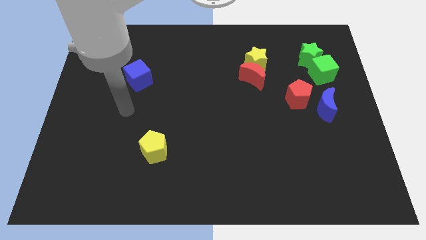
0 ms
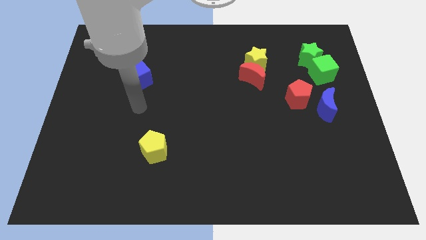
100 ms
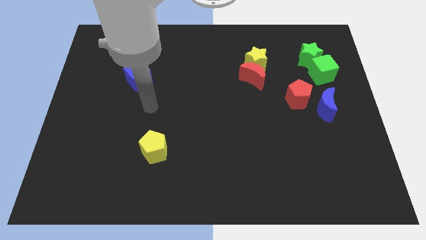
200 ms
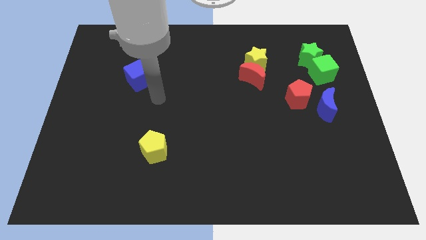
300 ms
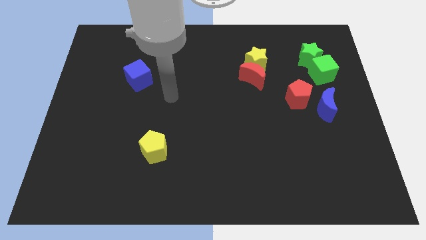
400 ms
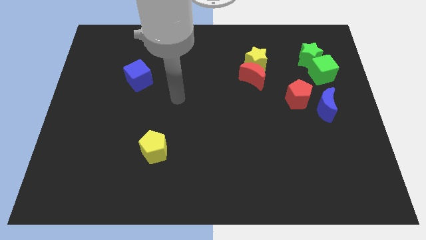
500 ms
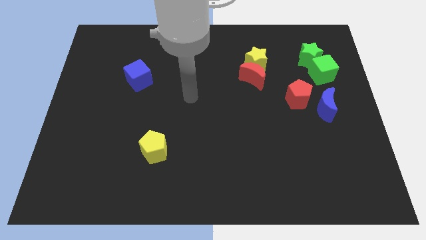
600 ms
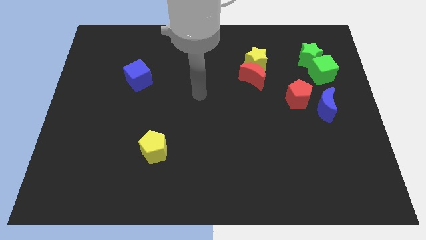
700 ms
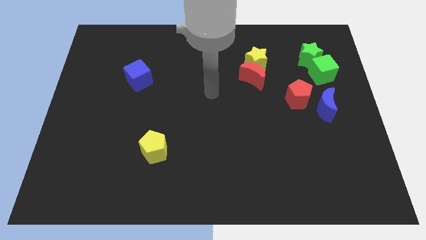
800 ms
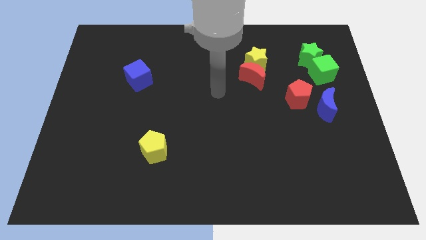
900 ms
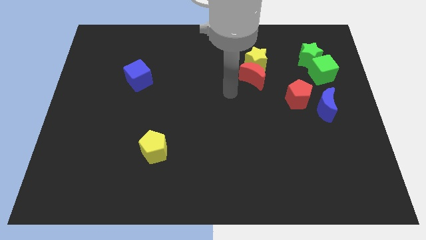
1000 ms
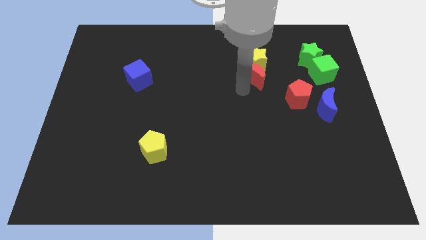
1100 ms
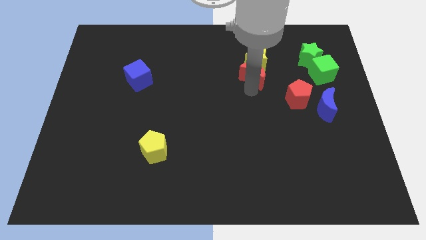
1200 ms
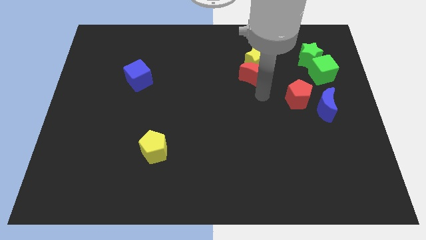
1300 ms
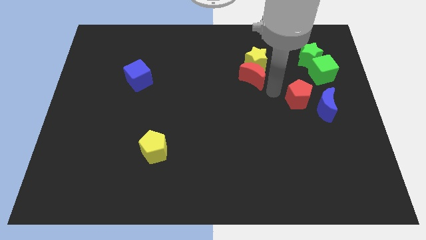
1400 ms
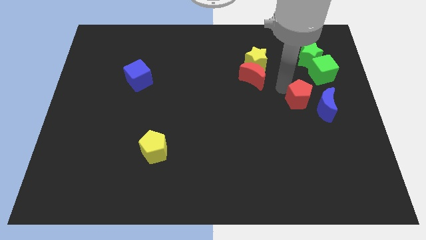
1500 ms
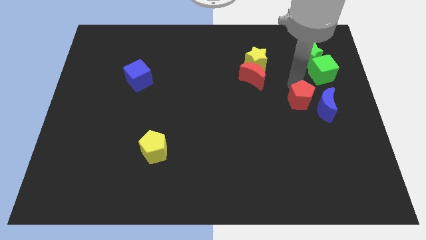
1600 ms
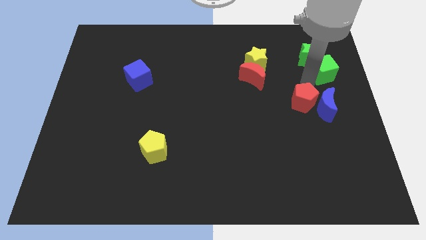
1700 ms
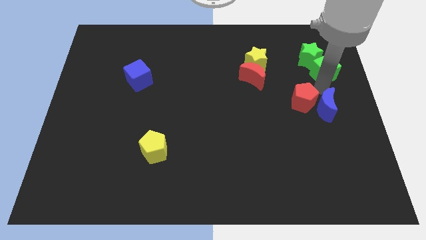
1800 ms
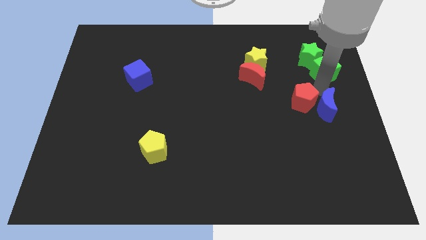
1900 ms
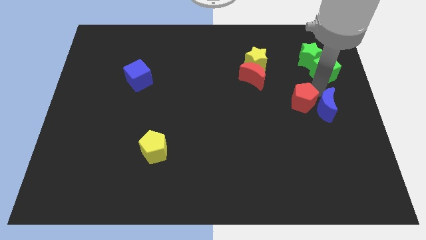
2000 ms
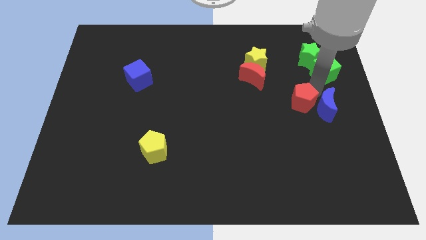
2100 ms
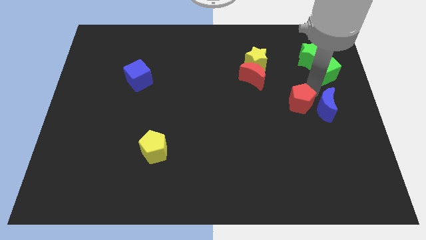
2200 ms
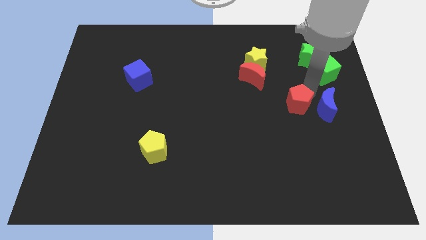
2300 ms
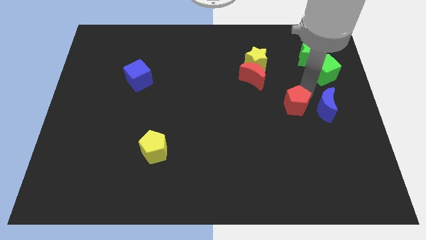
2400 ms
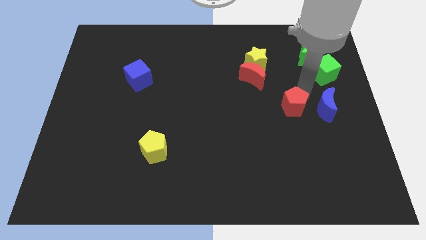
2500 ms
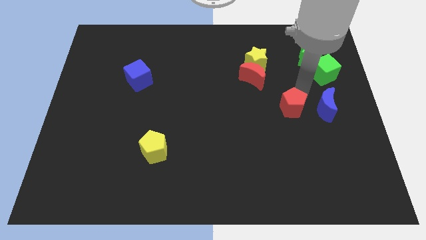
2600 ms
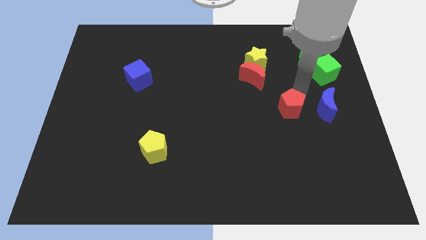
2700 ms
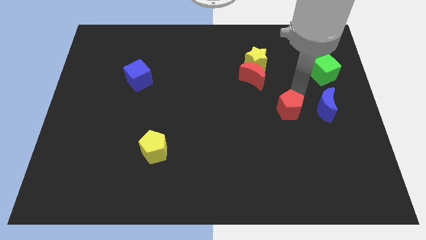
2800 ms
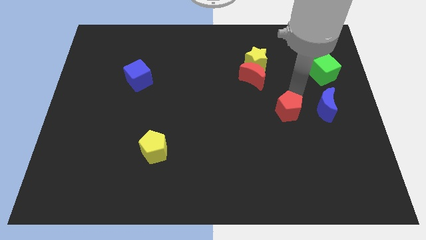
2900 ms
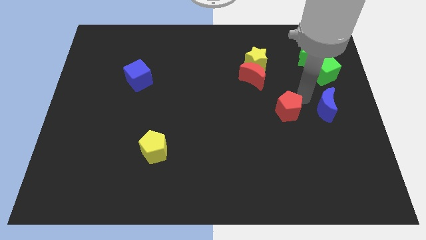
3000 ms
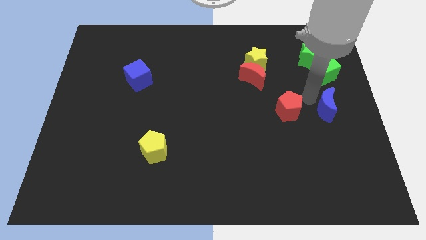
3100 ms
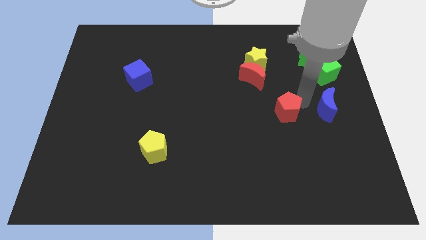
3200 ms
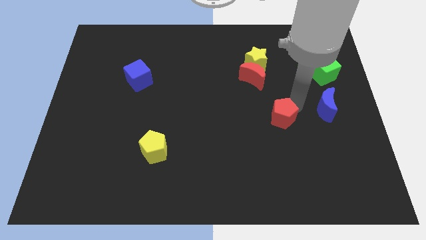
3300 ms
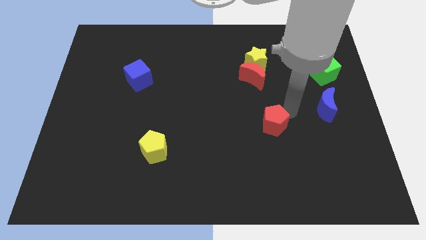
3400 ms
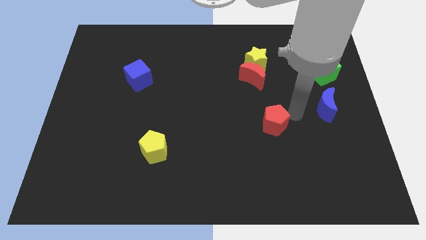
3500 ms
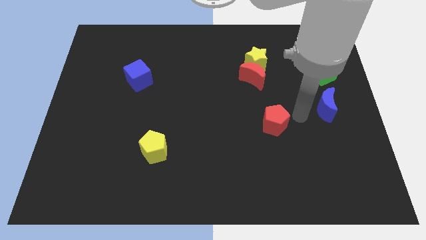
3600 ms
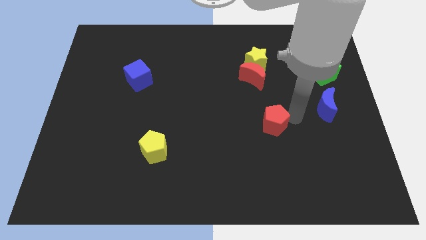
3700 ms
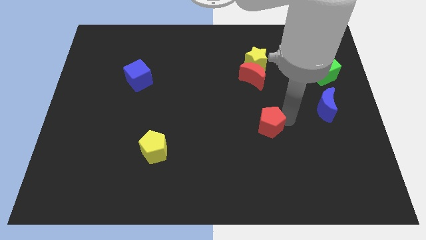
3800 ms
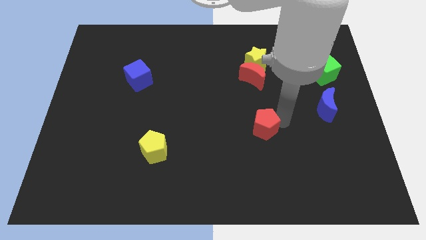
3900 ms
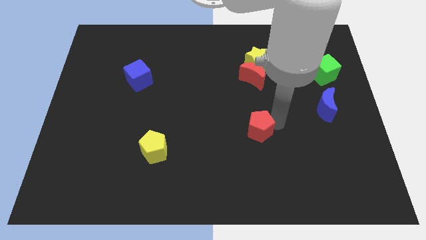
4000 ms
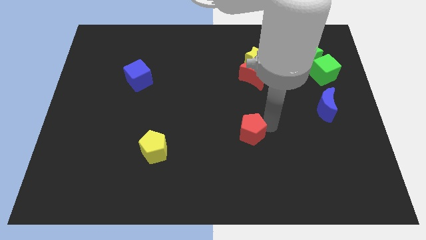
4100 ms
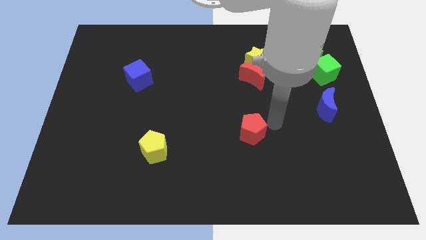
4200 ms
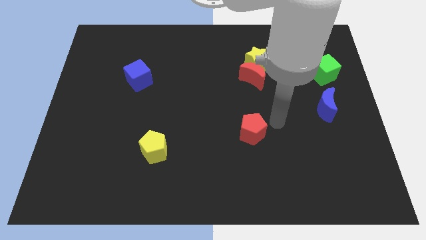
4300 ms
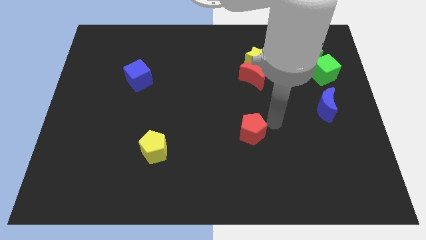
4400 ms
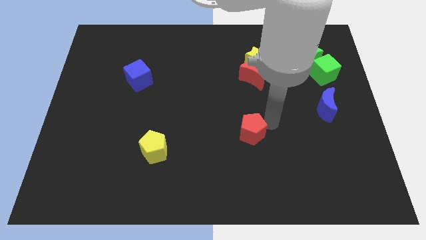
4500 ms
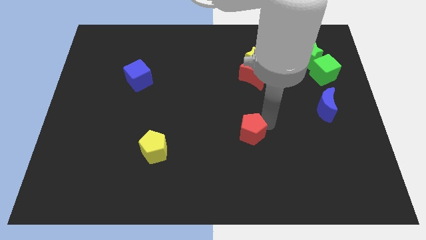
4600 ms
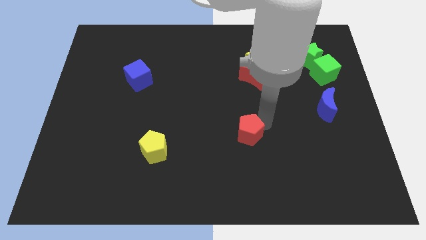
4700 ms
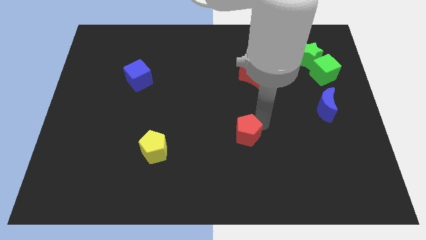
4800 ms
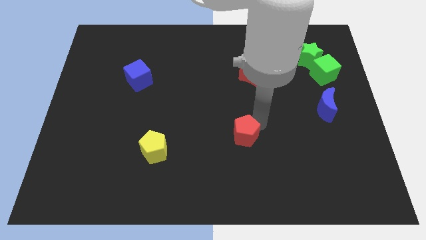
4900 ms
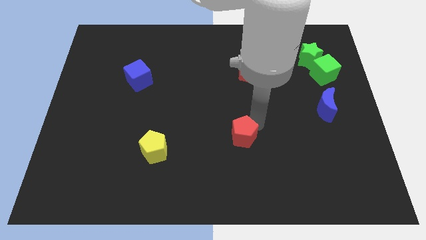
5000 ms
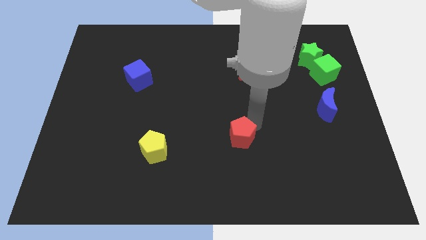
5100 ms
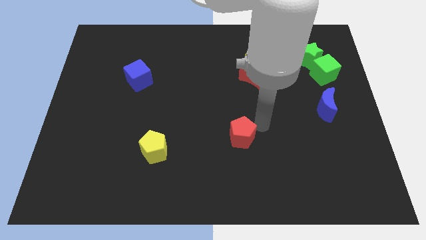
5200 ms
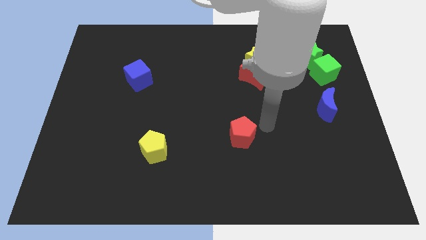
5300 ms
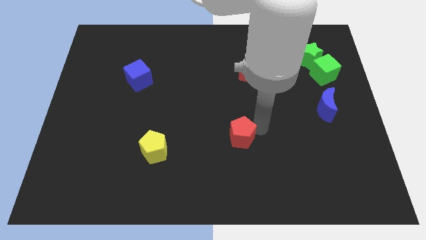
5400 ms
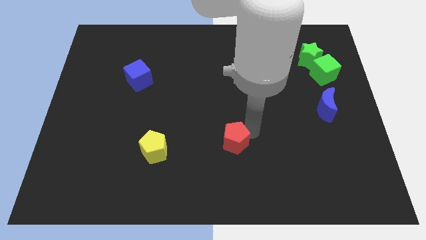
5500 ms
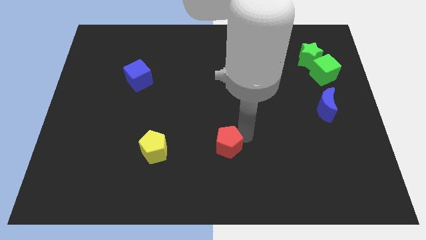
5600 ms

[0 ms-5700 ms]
move the red pentagon to the right of the yellow pentagon

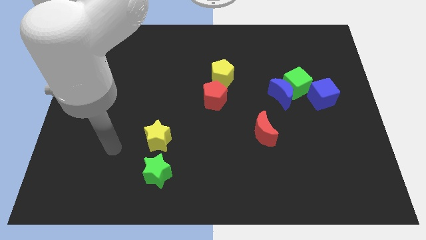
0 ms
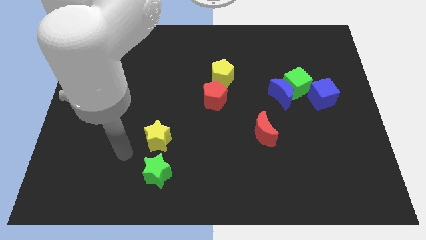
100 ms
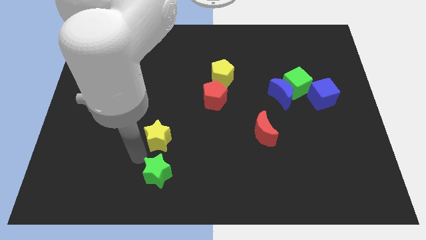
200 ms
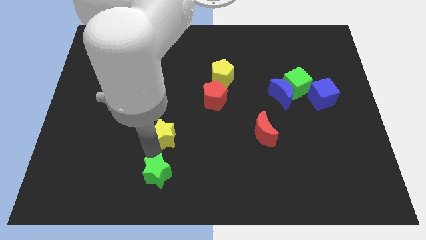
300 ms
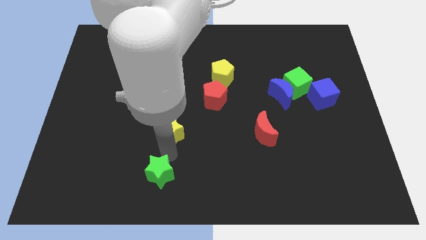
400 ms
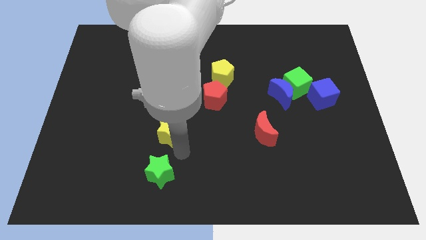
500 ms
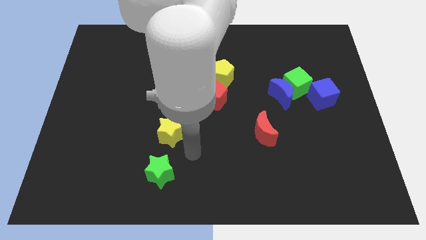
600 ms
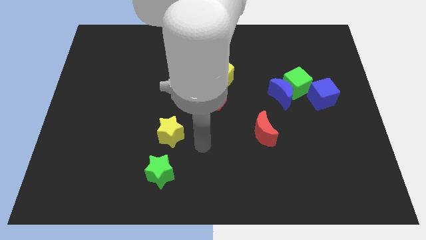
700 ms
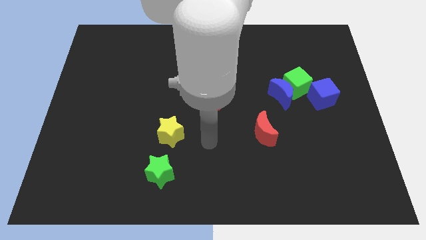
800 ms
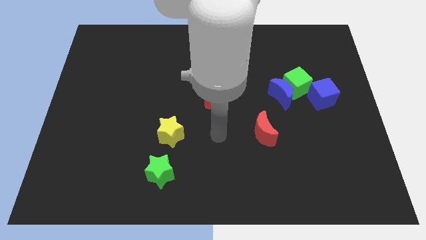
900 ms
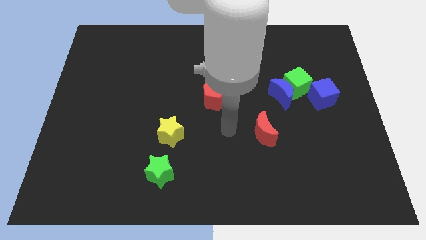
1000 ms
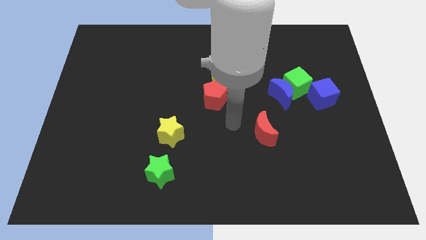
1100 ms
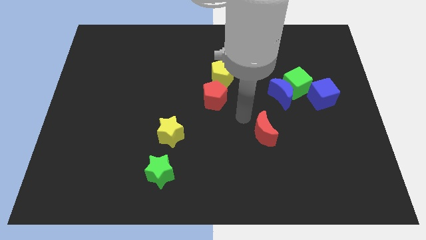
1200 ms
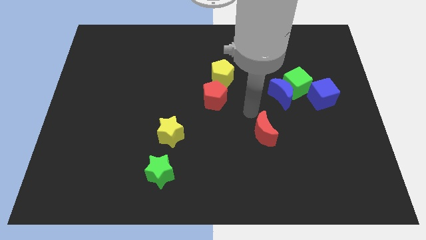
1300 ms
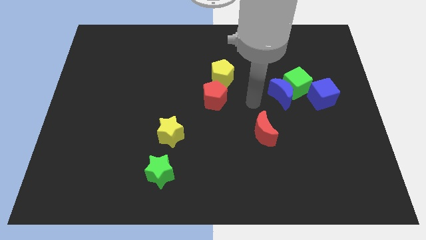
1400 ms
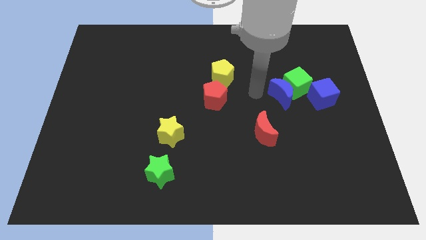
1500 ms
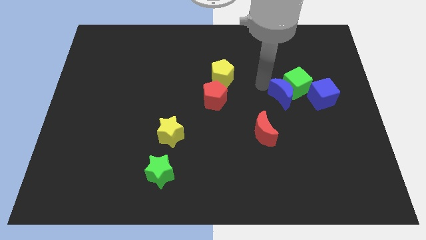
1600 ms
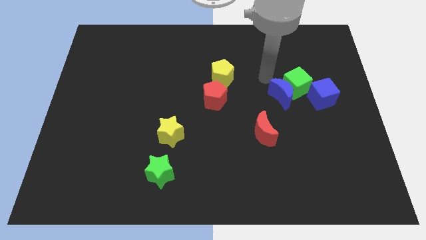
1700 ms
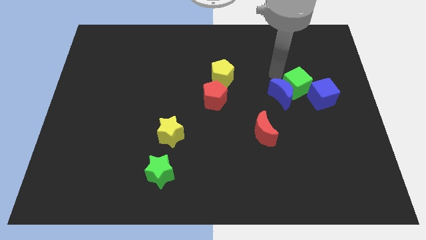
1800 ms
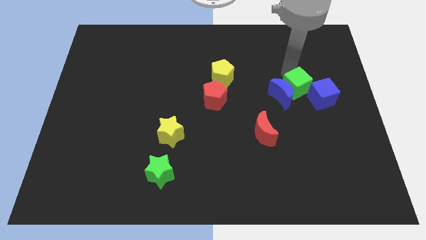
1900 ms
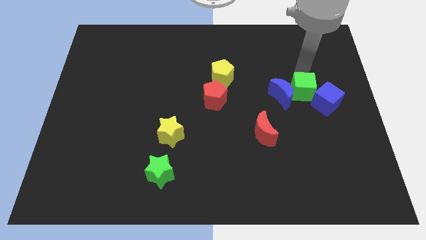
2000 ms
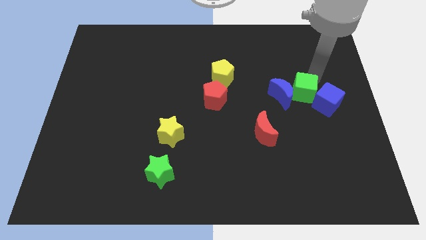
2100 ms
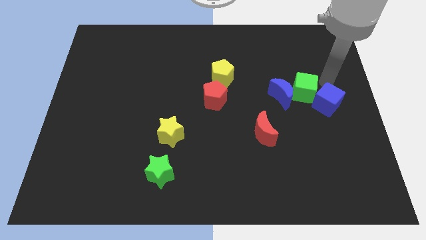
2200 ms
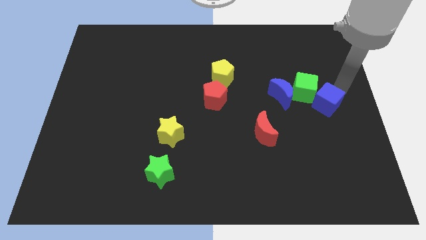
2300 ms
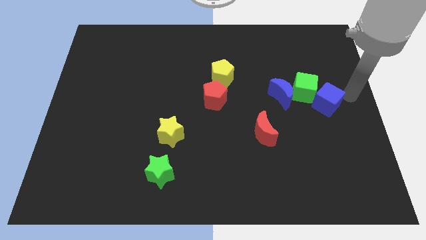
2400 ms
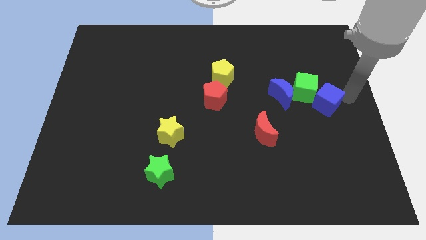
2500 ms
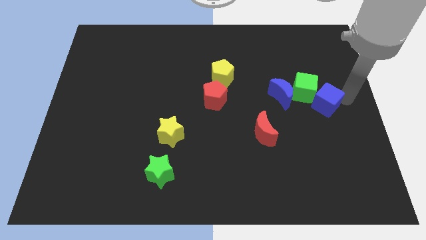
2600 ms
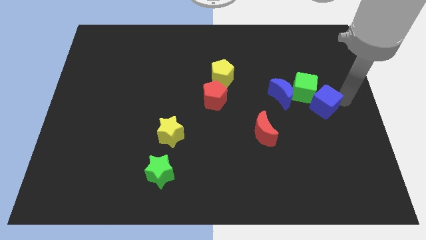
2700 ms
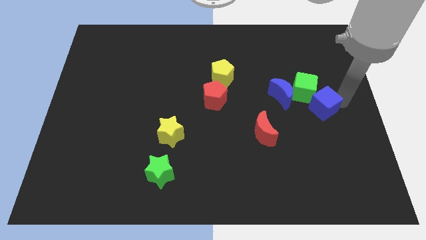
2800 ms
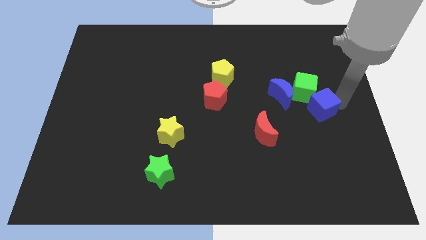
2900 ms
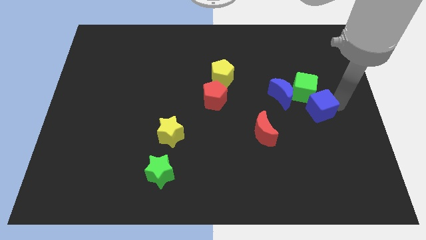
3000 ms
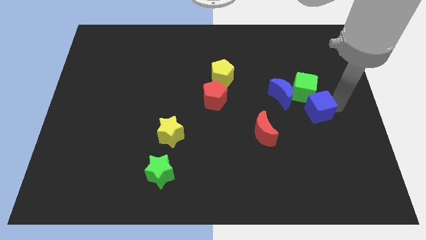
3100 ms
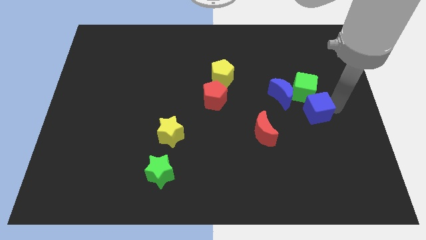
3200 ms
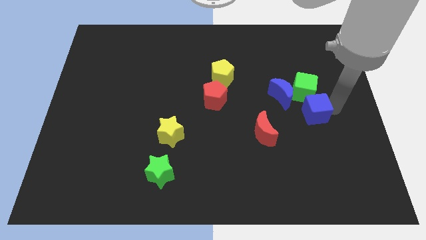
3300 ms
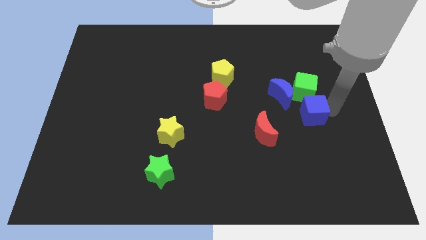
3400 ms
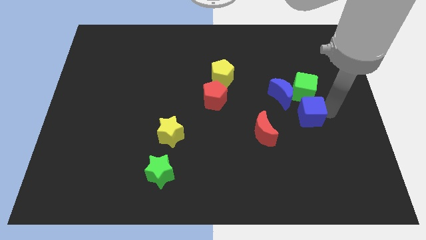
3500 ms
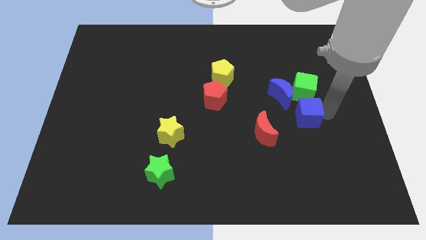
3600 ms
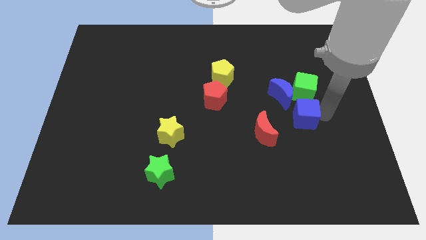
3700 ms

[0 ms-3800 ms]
move the blue cube diagonally down and to the left of the green cube
